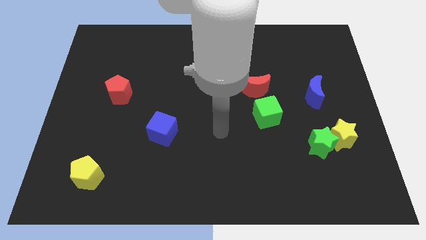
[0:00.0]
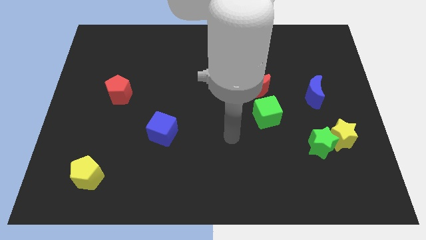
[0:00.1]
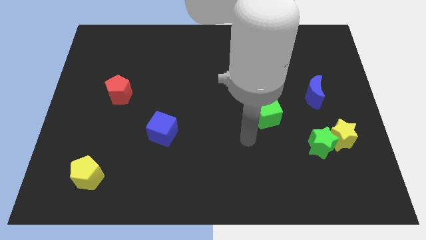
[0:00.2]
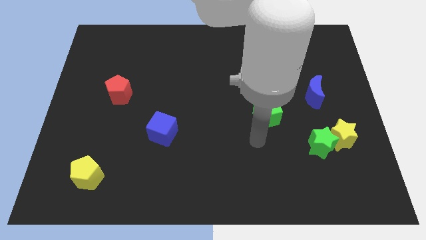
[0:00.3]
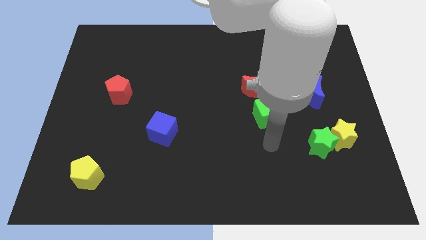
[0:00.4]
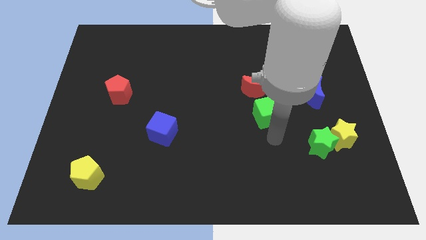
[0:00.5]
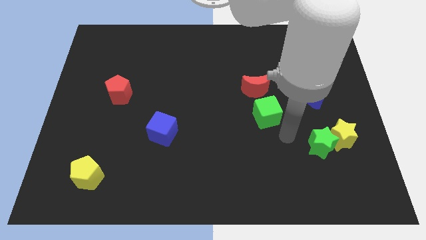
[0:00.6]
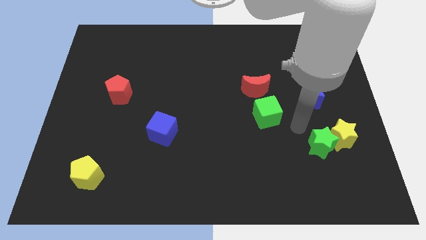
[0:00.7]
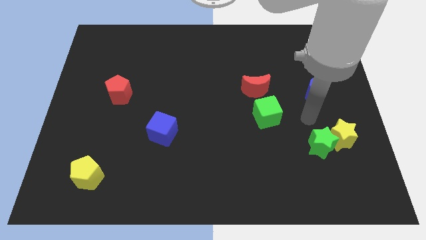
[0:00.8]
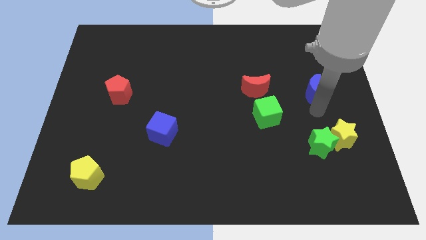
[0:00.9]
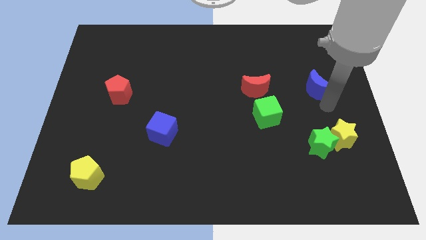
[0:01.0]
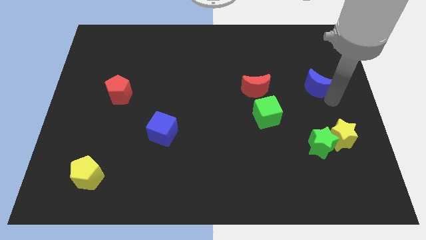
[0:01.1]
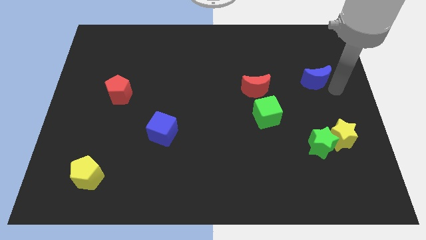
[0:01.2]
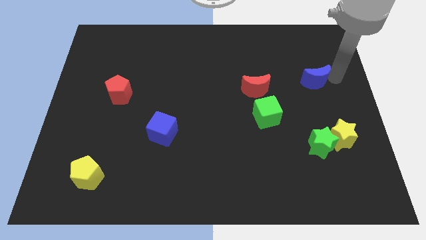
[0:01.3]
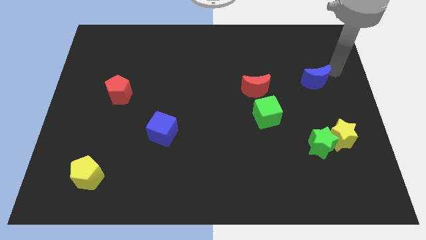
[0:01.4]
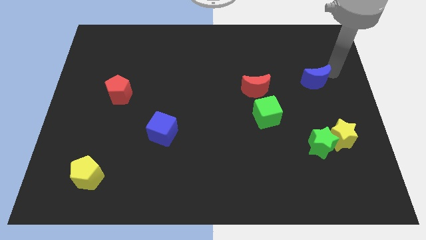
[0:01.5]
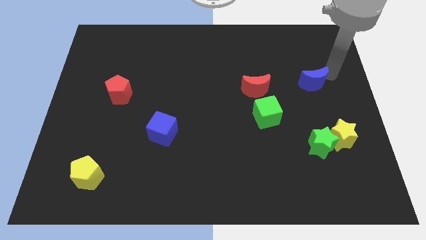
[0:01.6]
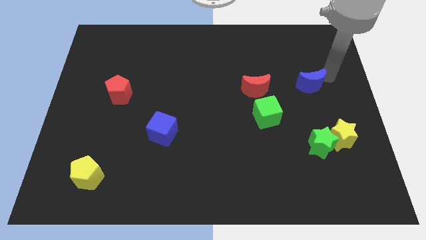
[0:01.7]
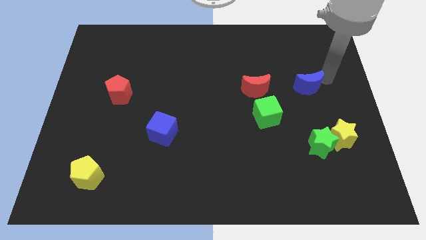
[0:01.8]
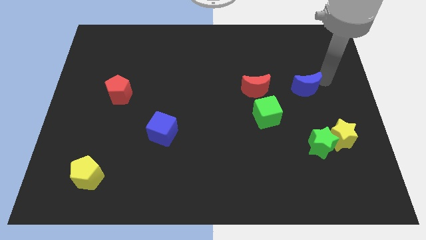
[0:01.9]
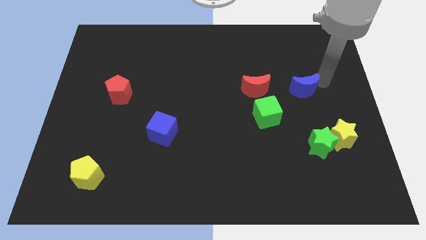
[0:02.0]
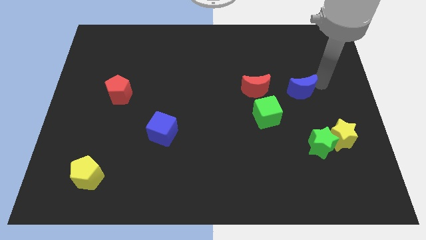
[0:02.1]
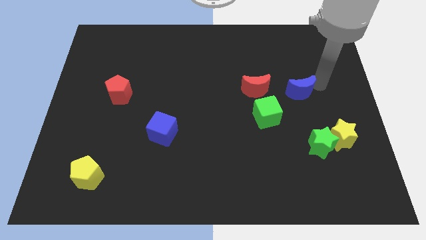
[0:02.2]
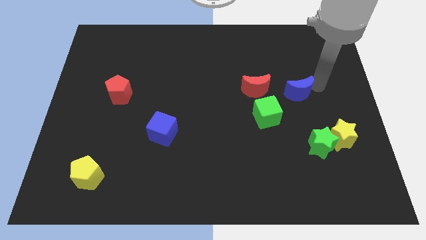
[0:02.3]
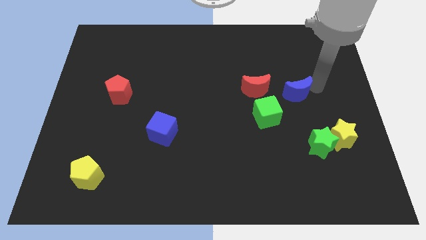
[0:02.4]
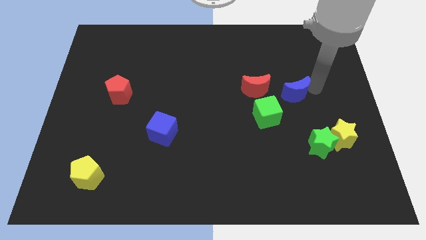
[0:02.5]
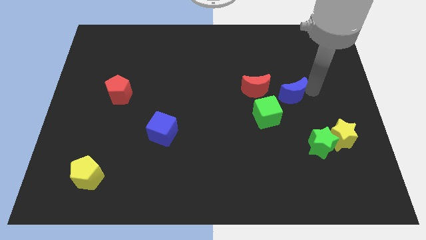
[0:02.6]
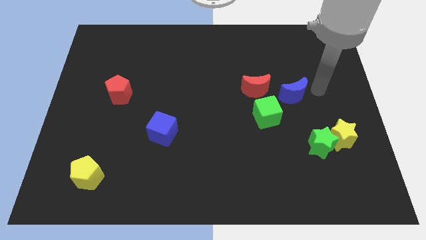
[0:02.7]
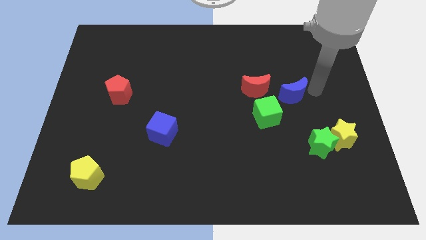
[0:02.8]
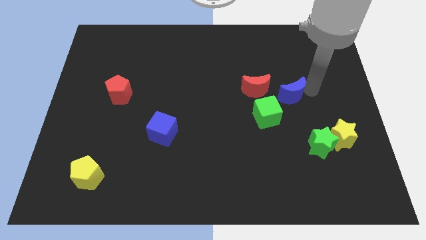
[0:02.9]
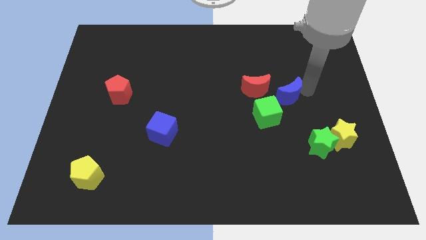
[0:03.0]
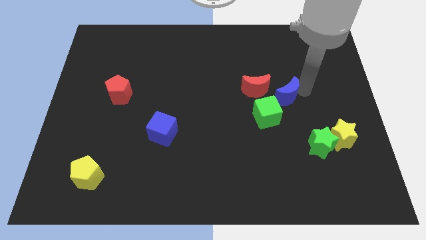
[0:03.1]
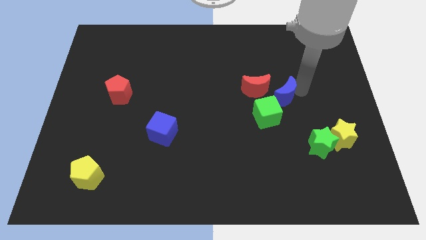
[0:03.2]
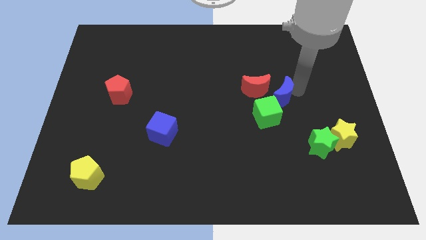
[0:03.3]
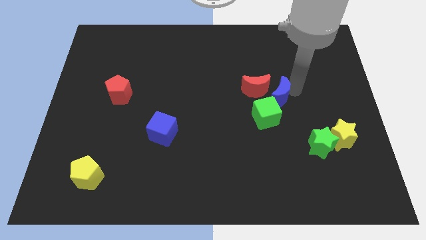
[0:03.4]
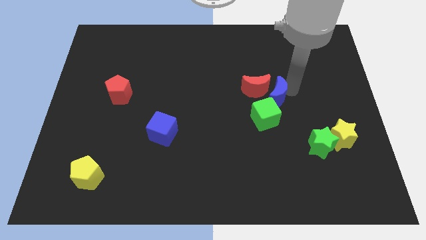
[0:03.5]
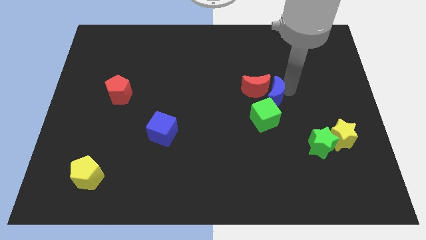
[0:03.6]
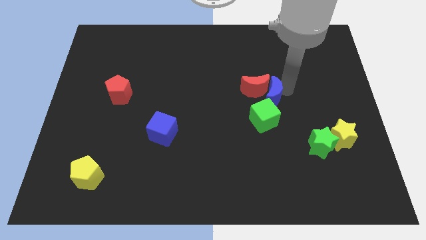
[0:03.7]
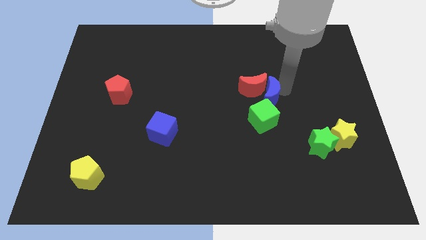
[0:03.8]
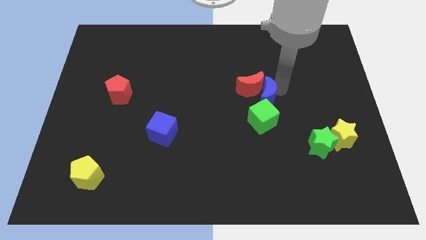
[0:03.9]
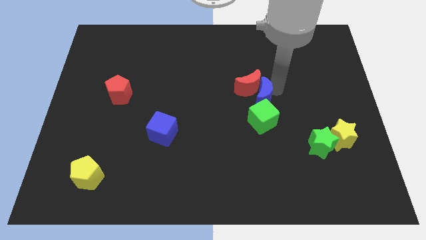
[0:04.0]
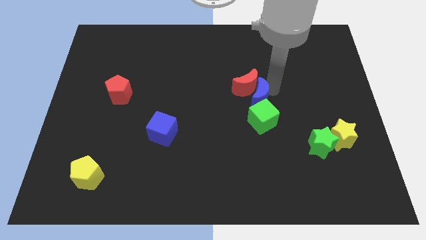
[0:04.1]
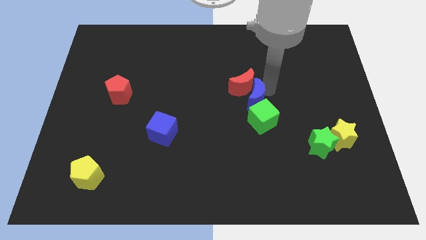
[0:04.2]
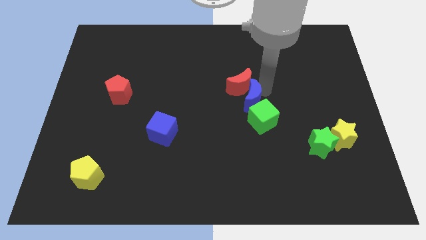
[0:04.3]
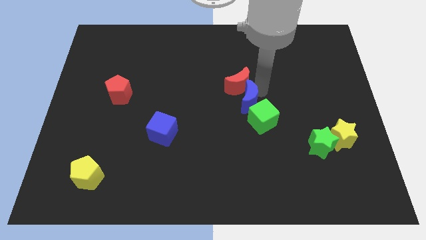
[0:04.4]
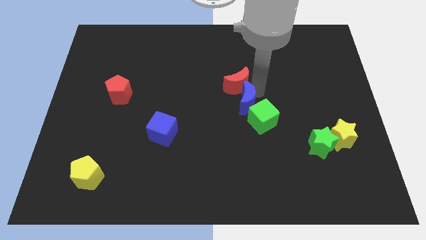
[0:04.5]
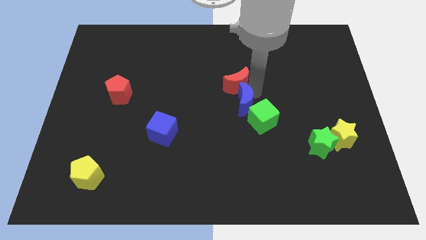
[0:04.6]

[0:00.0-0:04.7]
move the blue moon to the bottom left side of the red moon

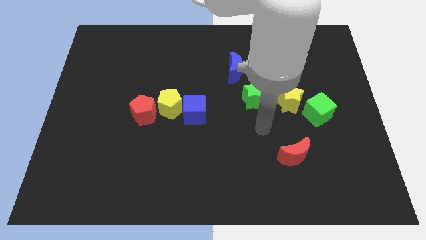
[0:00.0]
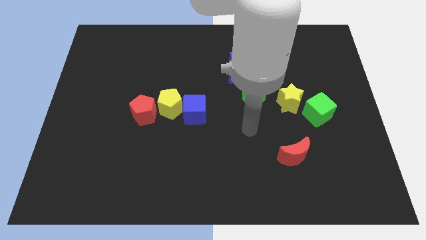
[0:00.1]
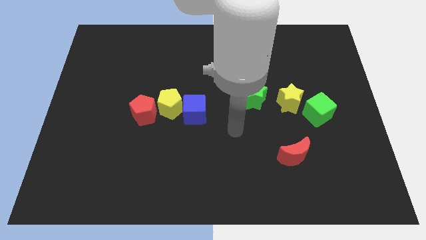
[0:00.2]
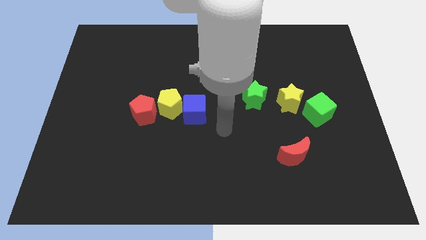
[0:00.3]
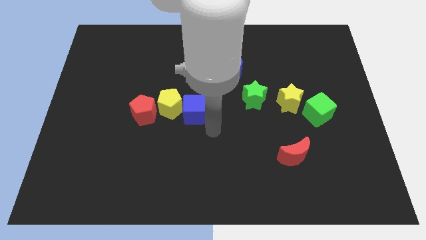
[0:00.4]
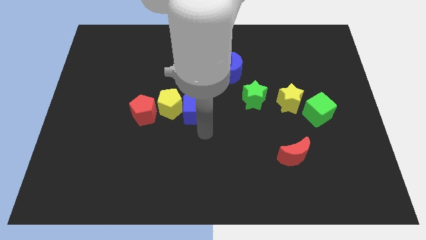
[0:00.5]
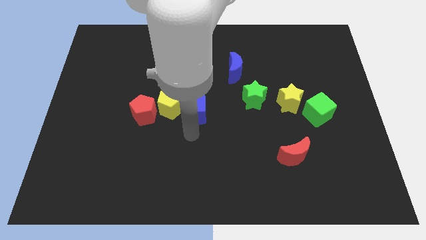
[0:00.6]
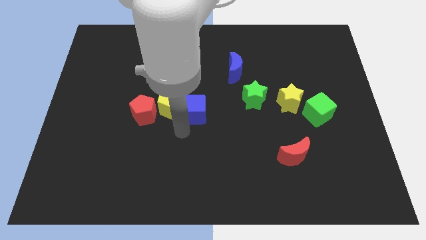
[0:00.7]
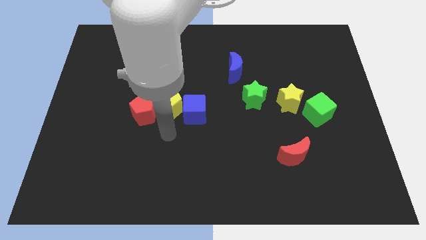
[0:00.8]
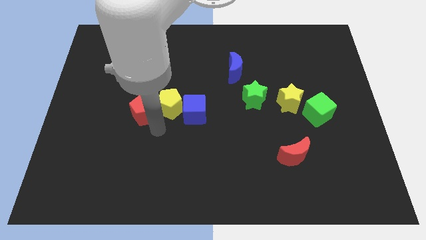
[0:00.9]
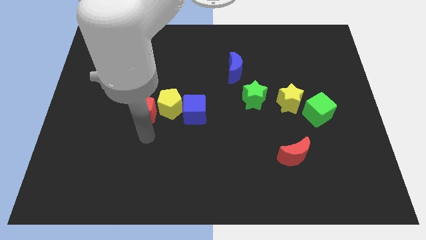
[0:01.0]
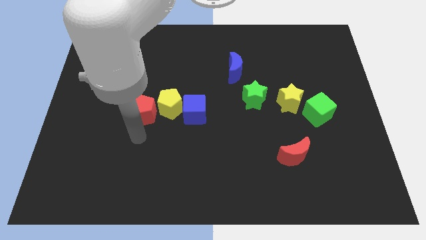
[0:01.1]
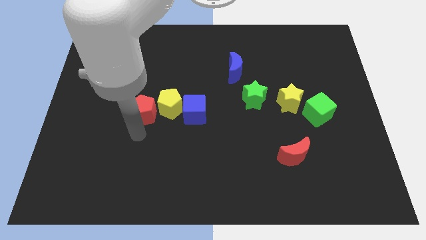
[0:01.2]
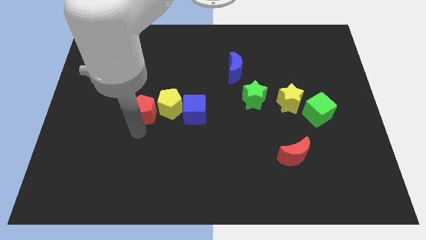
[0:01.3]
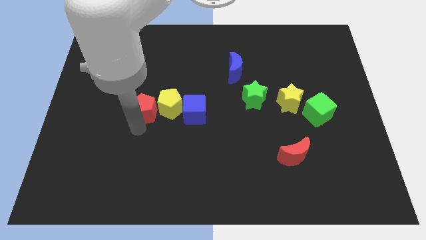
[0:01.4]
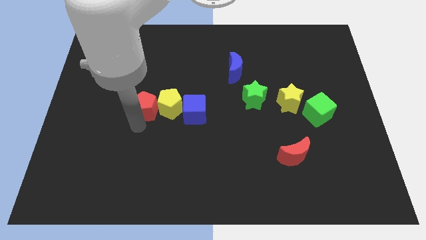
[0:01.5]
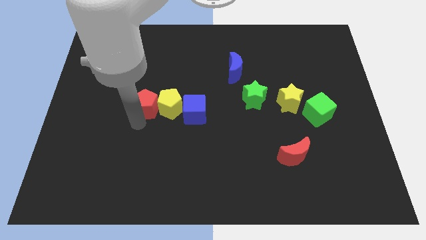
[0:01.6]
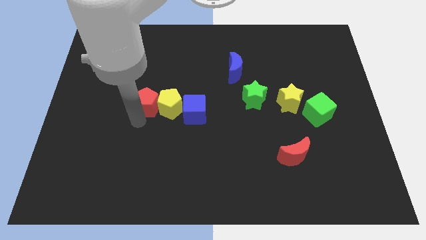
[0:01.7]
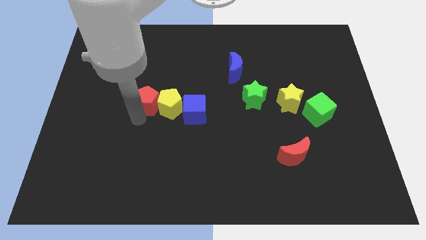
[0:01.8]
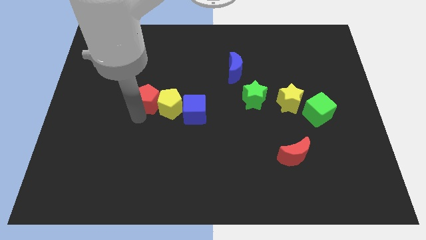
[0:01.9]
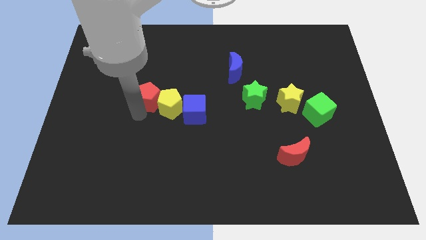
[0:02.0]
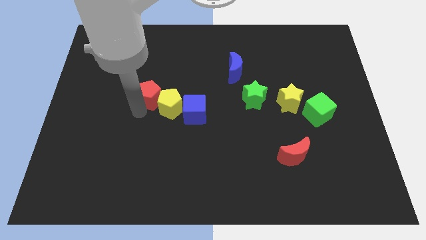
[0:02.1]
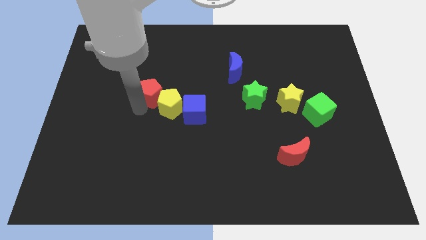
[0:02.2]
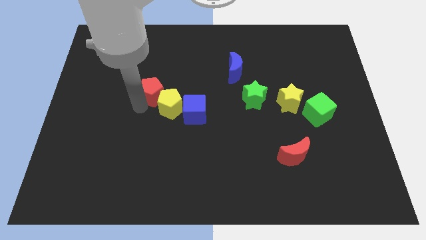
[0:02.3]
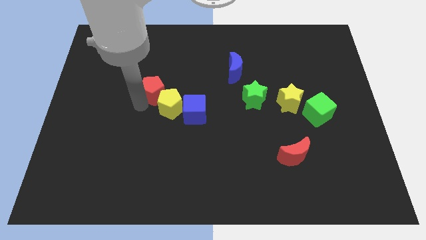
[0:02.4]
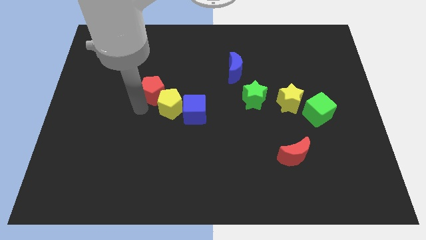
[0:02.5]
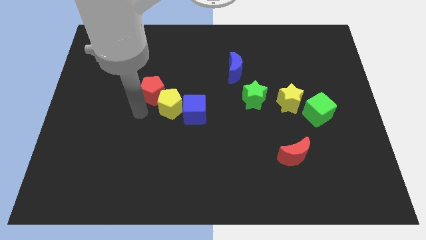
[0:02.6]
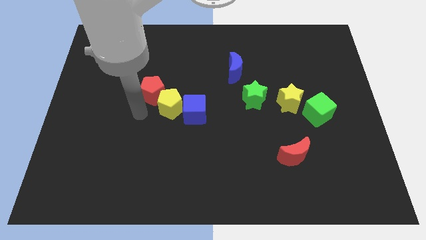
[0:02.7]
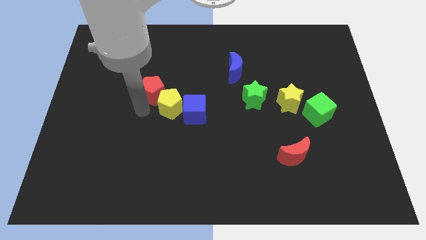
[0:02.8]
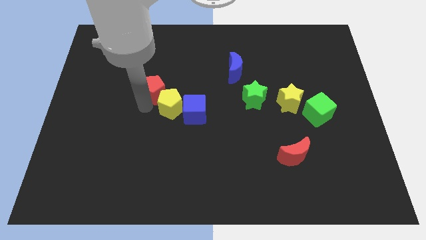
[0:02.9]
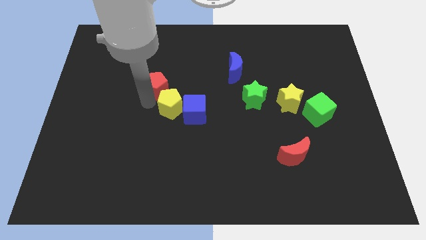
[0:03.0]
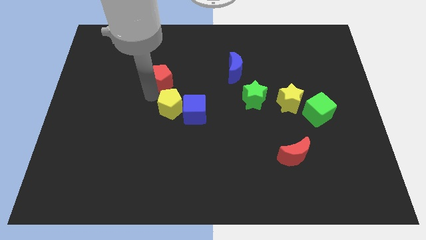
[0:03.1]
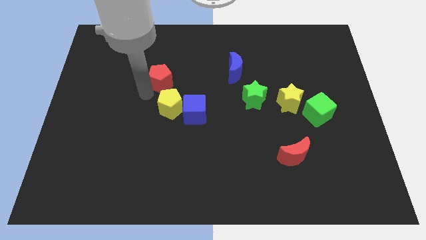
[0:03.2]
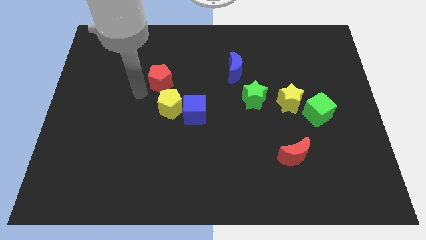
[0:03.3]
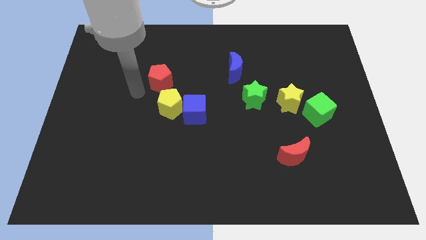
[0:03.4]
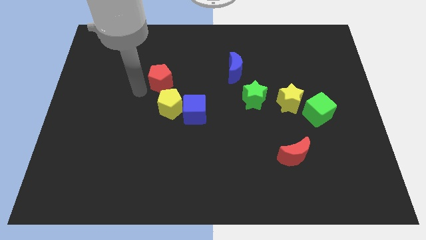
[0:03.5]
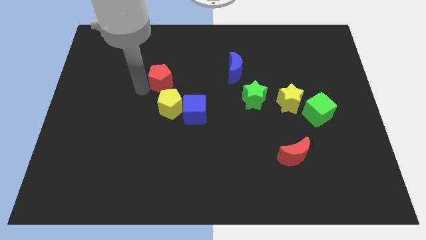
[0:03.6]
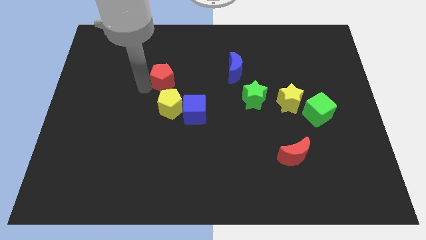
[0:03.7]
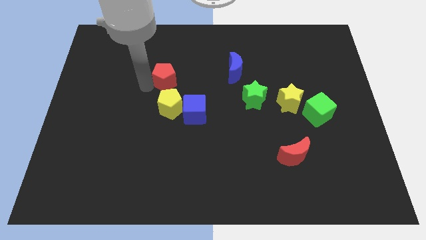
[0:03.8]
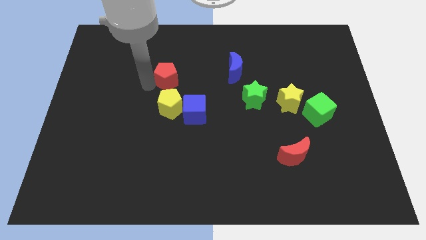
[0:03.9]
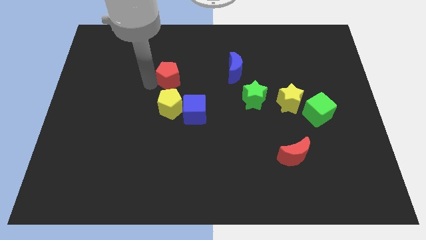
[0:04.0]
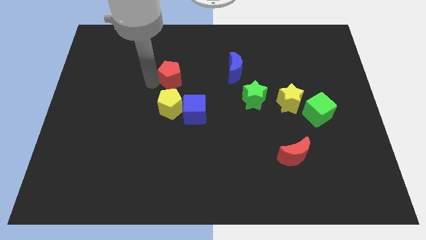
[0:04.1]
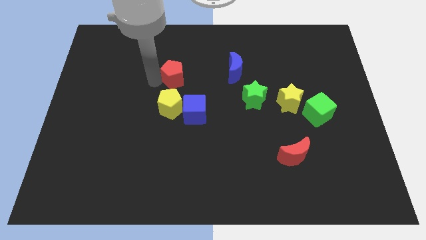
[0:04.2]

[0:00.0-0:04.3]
slide the red pentagon left of the blue moon
